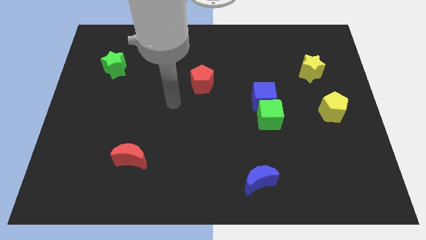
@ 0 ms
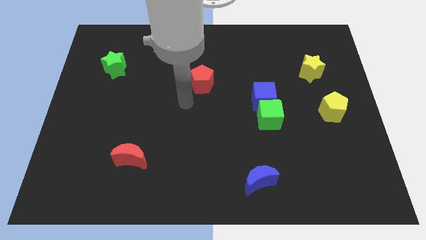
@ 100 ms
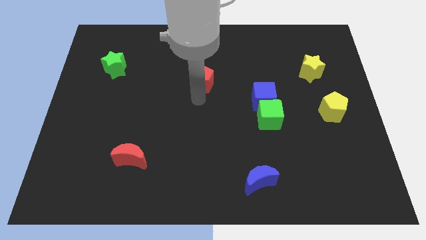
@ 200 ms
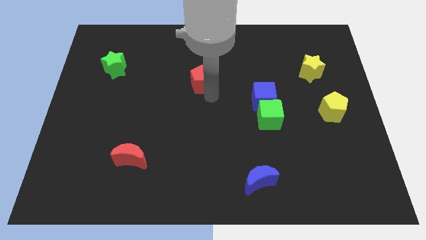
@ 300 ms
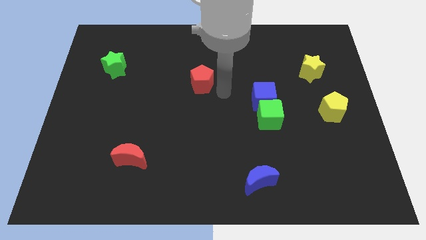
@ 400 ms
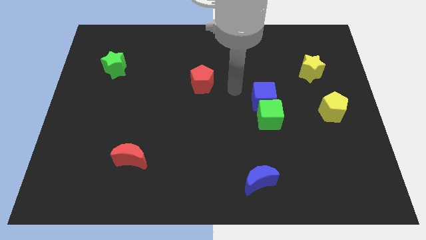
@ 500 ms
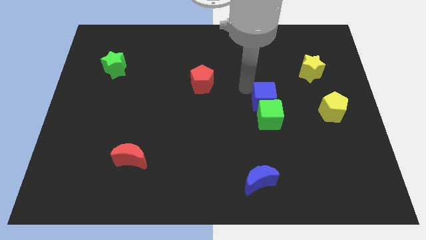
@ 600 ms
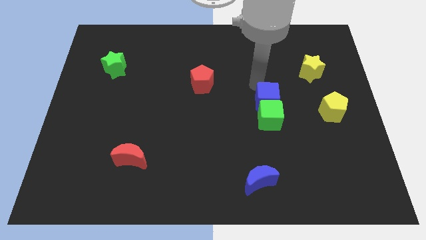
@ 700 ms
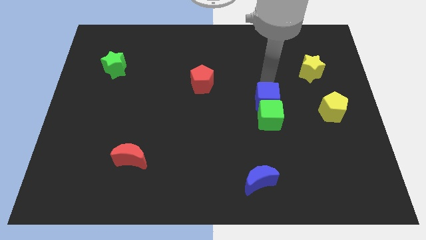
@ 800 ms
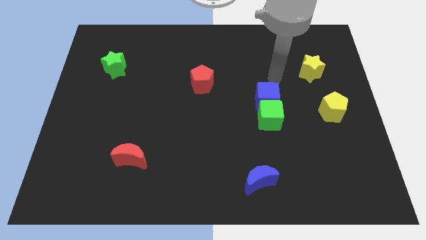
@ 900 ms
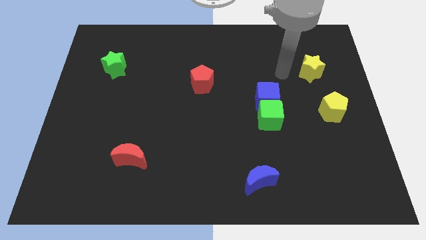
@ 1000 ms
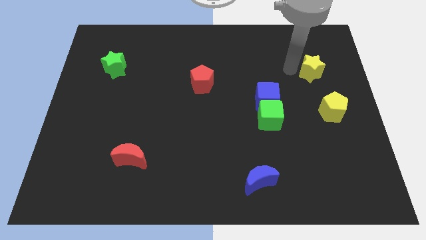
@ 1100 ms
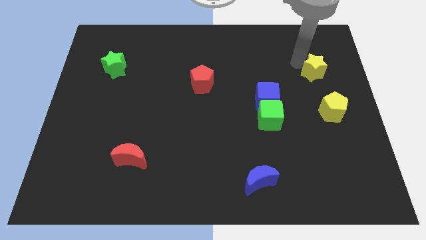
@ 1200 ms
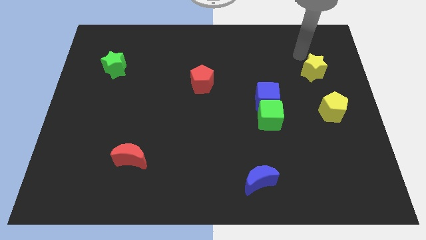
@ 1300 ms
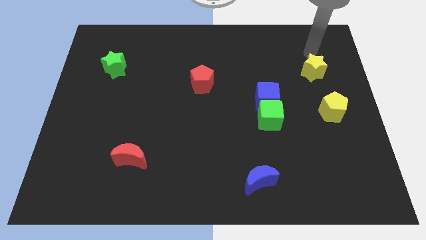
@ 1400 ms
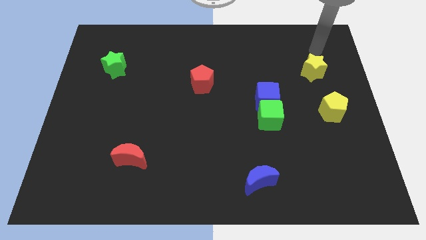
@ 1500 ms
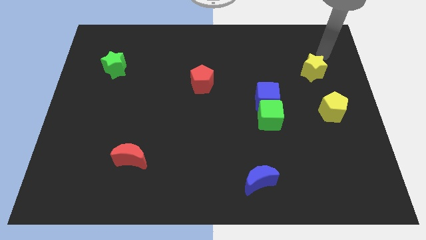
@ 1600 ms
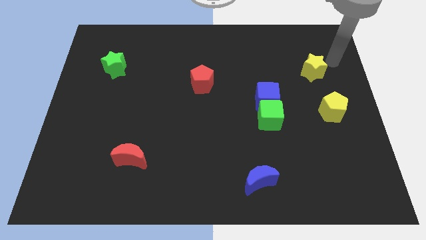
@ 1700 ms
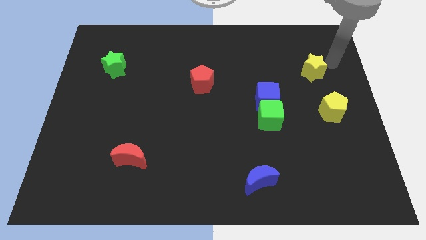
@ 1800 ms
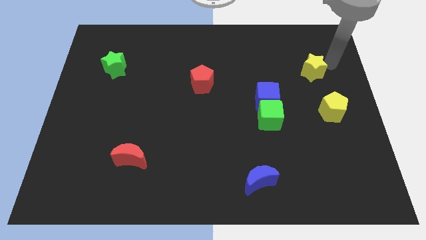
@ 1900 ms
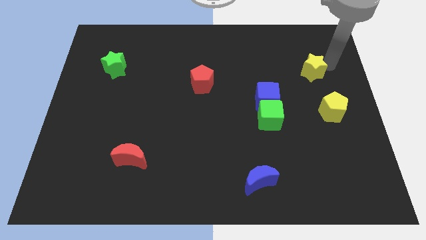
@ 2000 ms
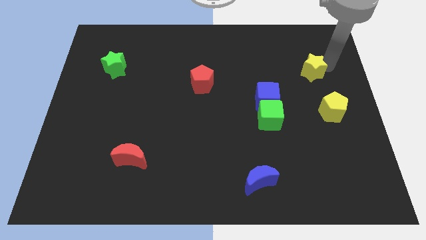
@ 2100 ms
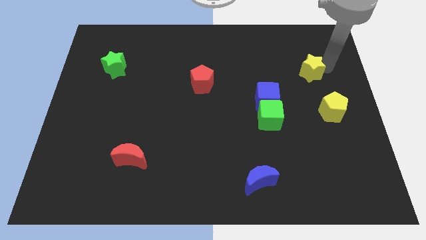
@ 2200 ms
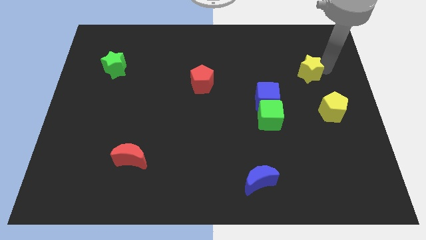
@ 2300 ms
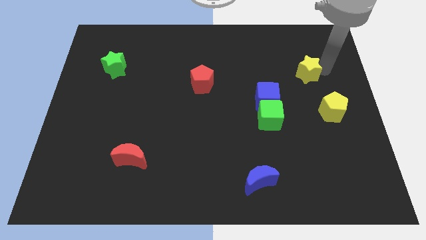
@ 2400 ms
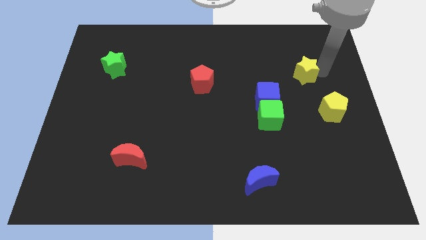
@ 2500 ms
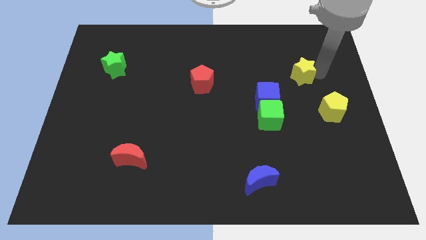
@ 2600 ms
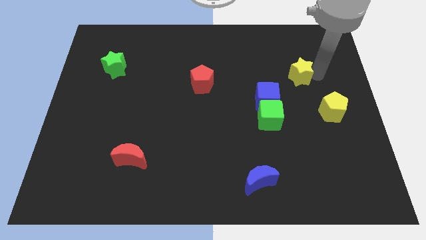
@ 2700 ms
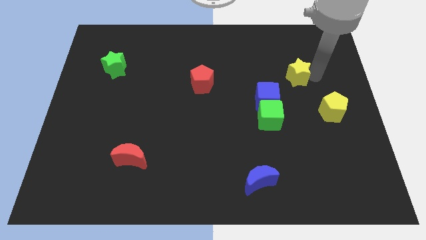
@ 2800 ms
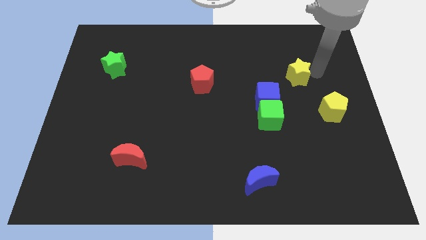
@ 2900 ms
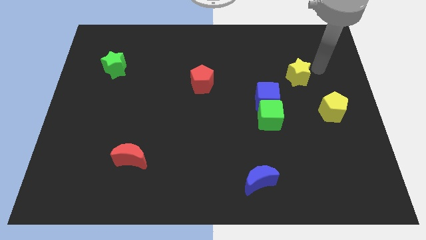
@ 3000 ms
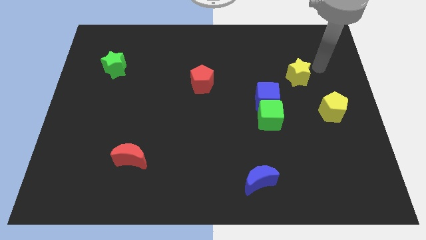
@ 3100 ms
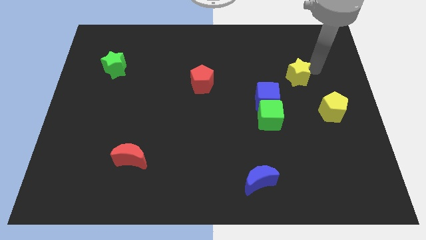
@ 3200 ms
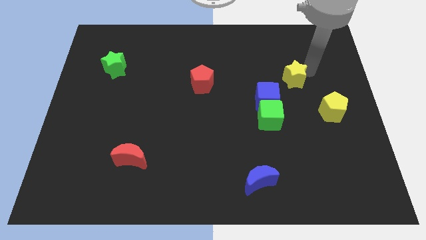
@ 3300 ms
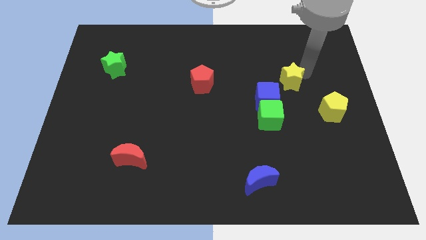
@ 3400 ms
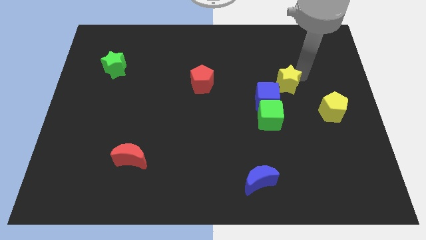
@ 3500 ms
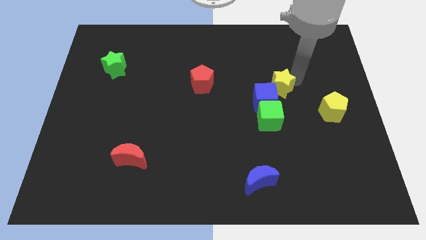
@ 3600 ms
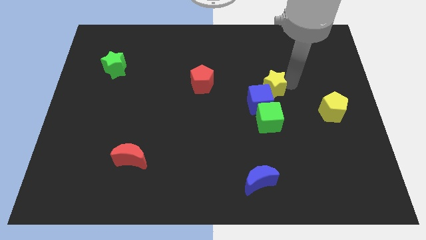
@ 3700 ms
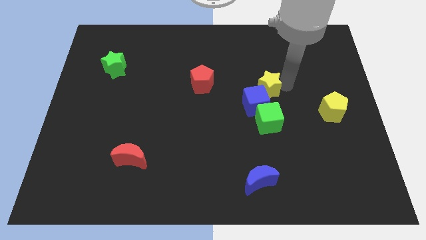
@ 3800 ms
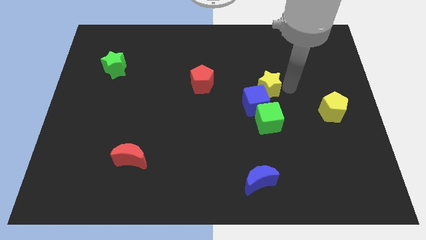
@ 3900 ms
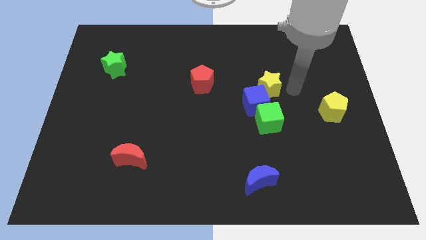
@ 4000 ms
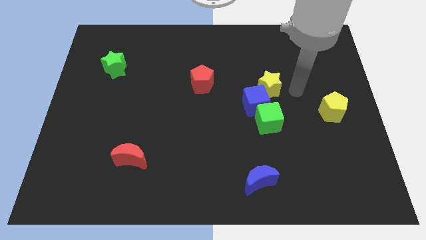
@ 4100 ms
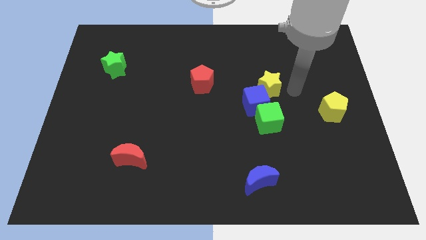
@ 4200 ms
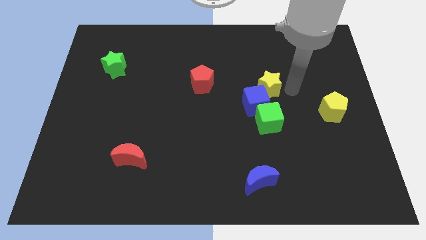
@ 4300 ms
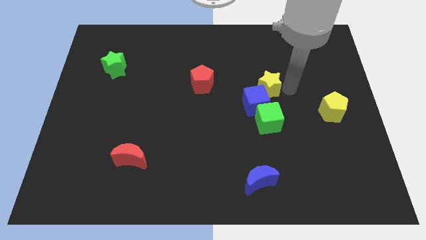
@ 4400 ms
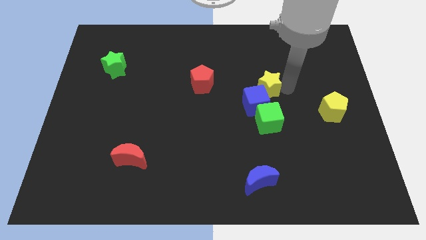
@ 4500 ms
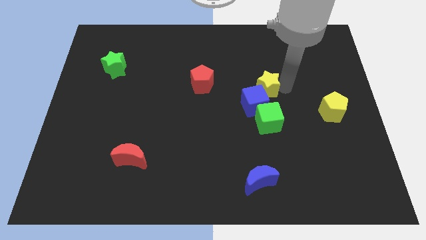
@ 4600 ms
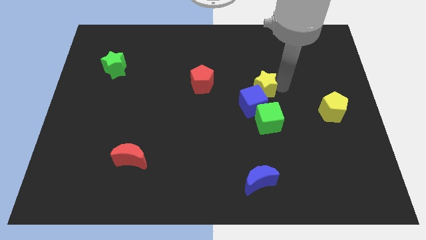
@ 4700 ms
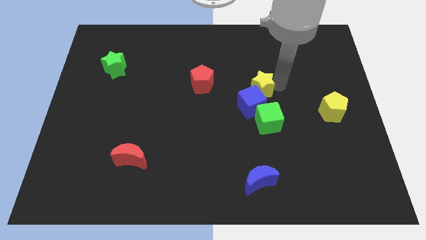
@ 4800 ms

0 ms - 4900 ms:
move the yellow star to the middle of the board
